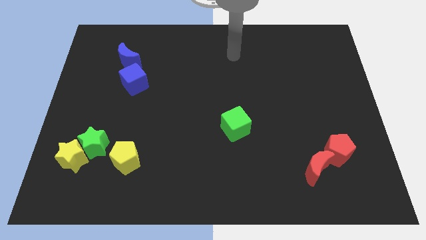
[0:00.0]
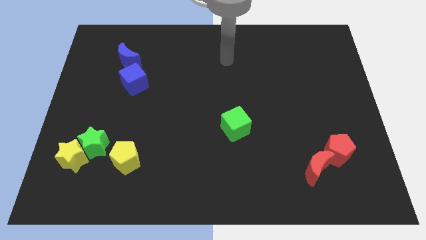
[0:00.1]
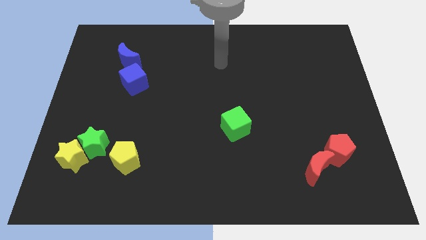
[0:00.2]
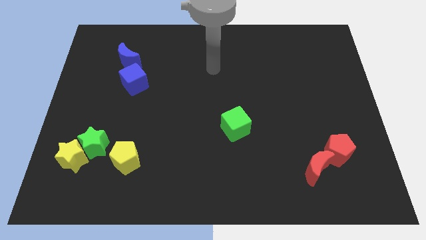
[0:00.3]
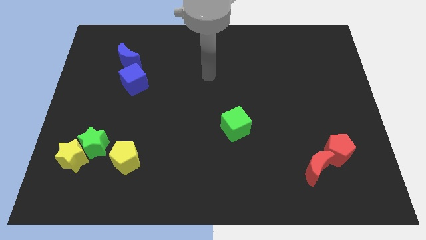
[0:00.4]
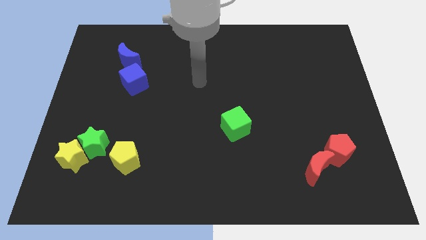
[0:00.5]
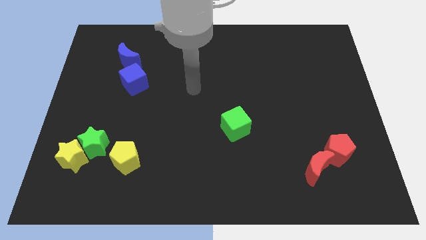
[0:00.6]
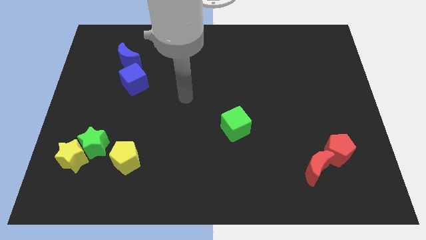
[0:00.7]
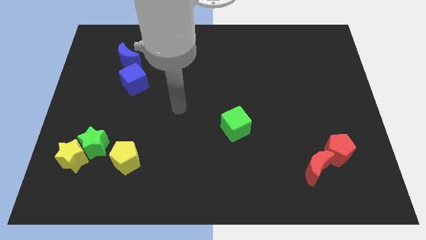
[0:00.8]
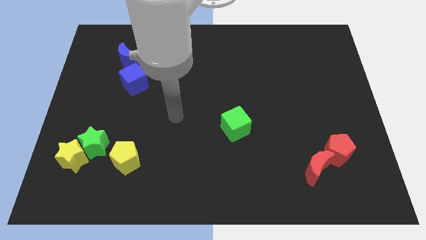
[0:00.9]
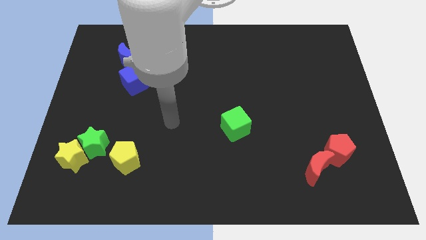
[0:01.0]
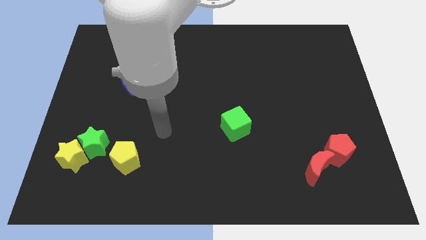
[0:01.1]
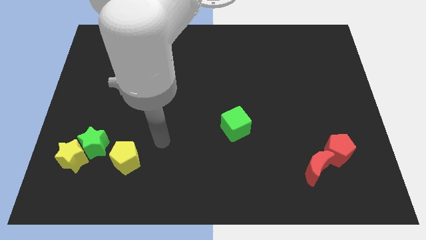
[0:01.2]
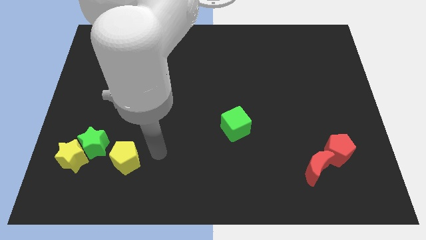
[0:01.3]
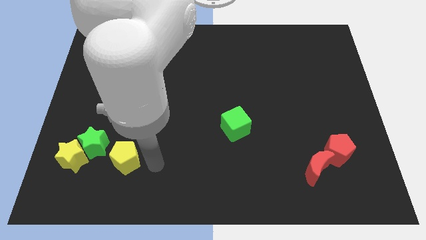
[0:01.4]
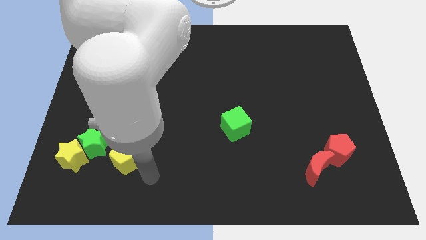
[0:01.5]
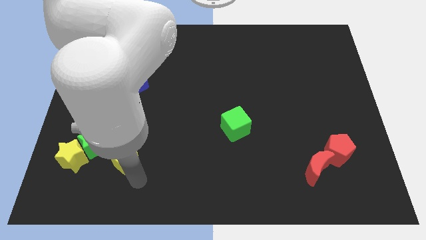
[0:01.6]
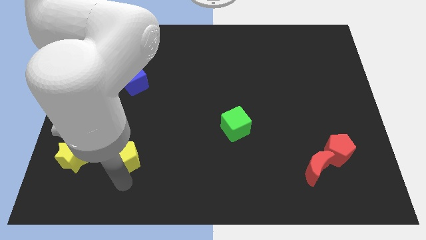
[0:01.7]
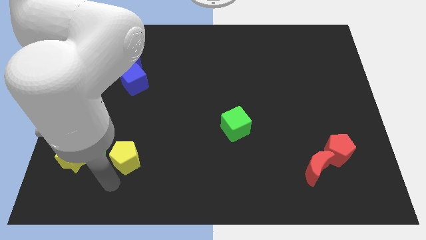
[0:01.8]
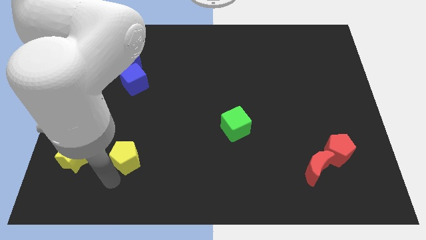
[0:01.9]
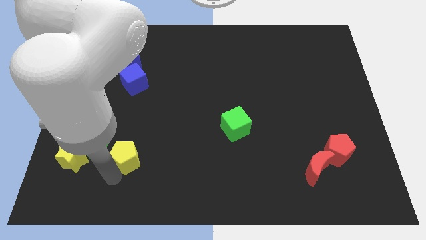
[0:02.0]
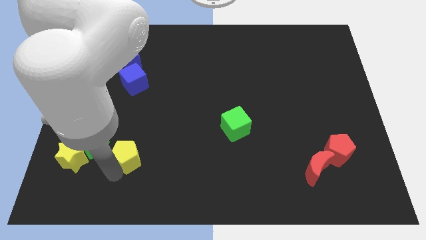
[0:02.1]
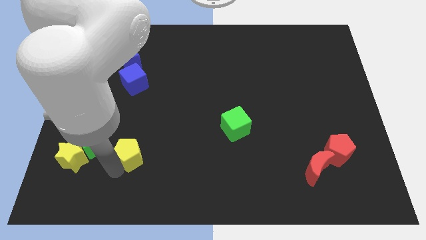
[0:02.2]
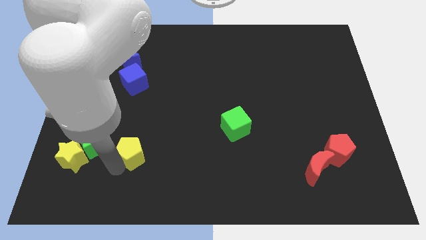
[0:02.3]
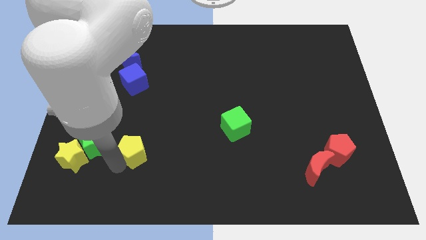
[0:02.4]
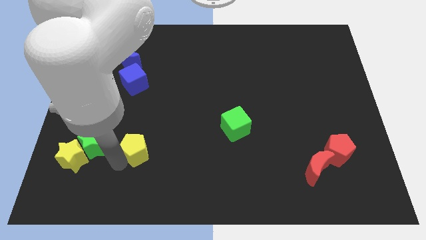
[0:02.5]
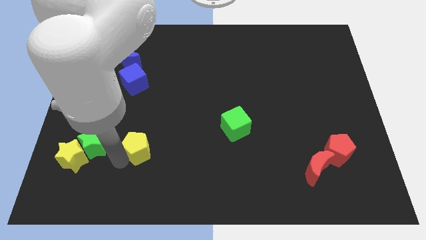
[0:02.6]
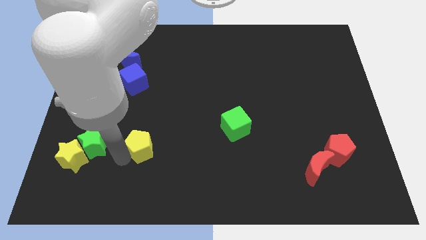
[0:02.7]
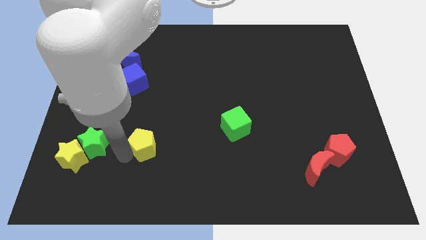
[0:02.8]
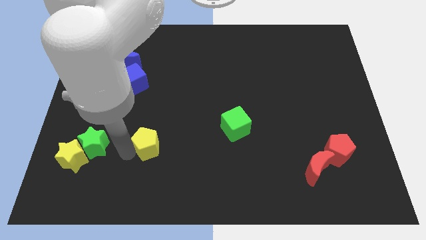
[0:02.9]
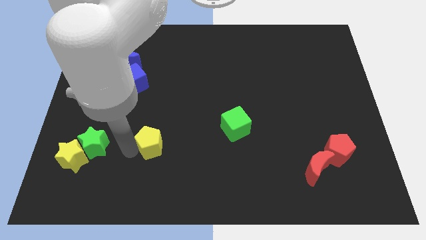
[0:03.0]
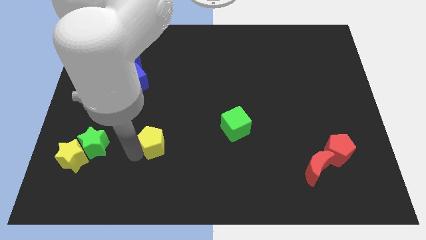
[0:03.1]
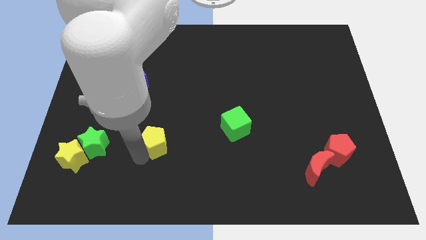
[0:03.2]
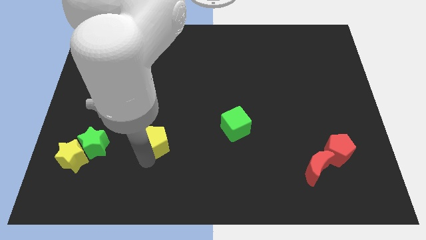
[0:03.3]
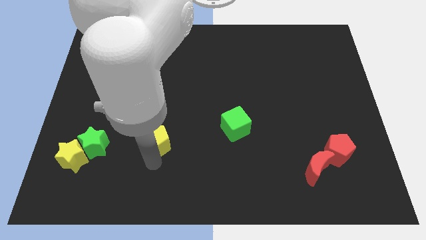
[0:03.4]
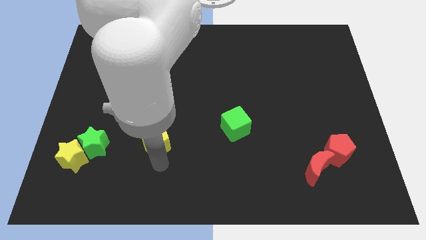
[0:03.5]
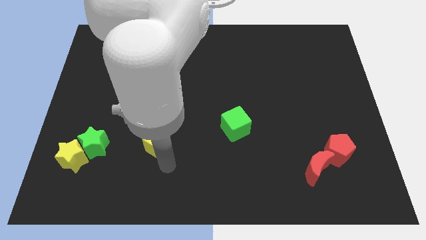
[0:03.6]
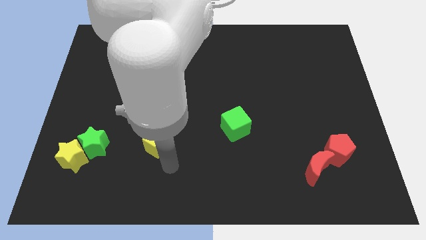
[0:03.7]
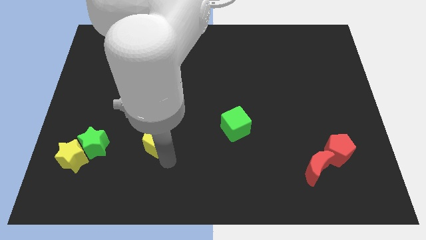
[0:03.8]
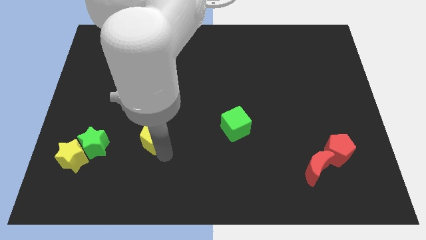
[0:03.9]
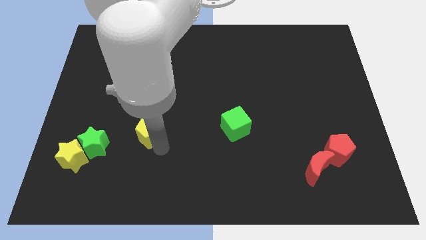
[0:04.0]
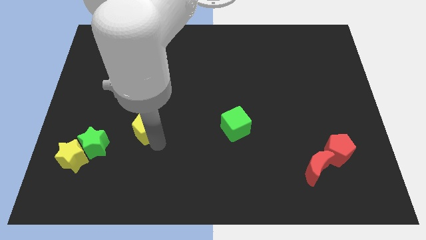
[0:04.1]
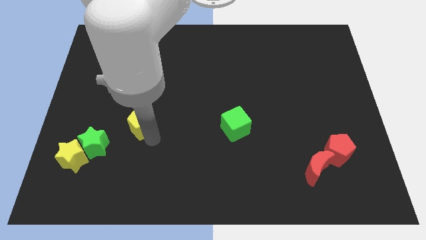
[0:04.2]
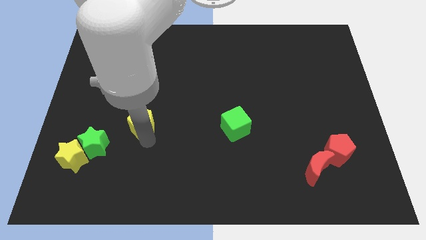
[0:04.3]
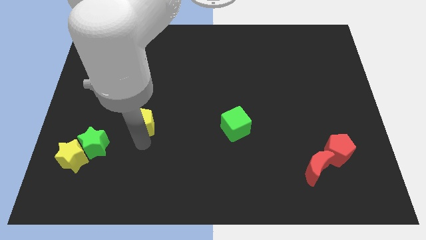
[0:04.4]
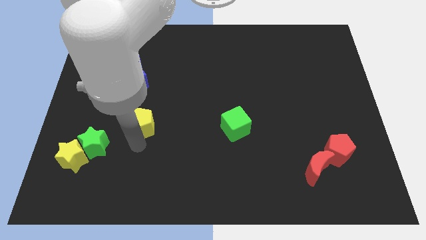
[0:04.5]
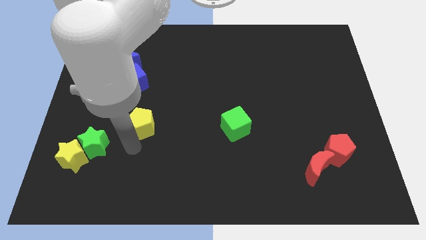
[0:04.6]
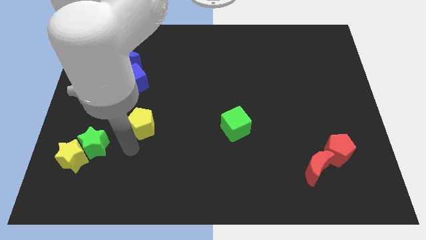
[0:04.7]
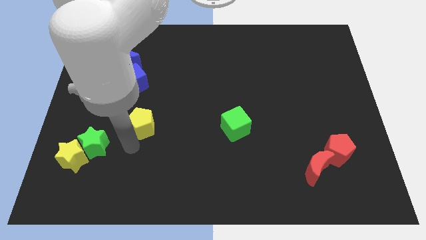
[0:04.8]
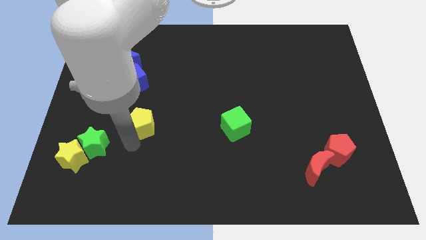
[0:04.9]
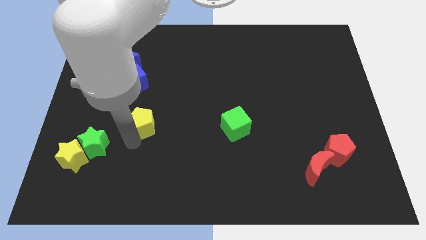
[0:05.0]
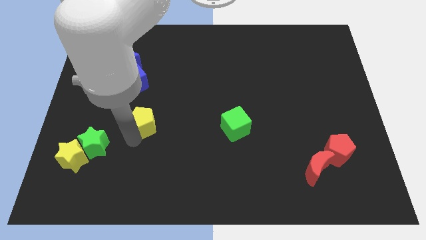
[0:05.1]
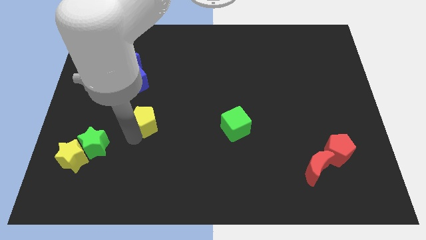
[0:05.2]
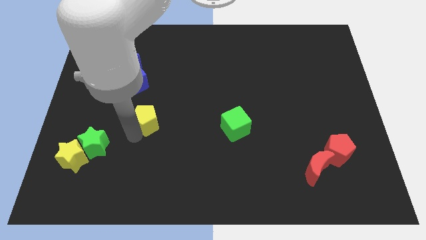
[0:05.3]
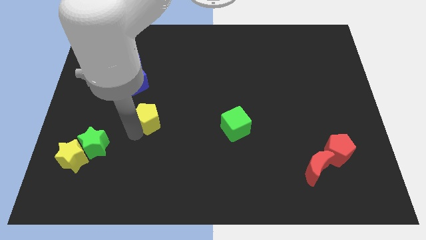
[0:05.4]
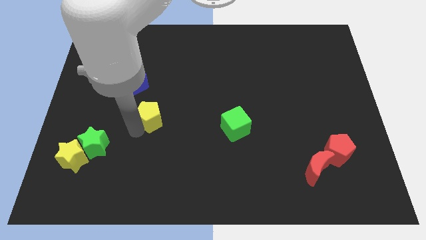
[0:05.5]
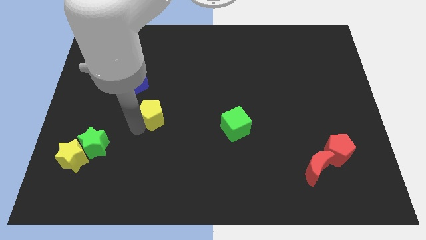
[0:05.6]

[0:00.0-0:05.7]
put the yellow pentagon to the bottom right side of the blue cube

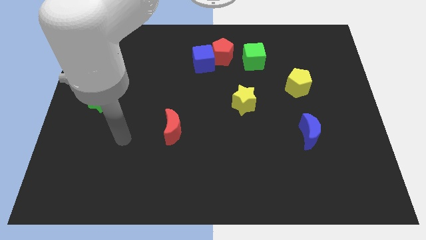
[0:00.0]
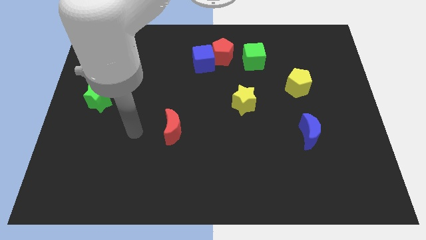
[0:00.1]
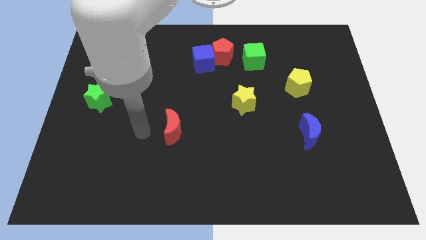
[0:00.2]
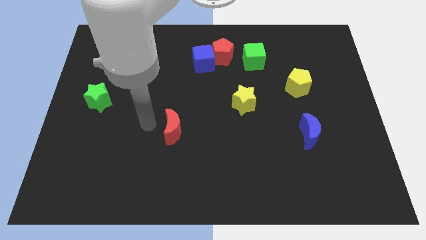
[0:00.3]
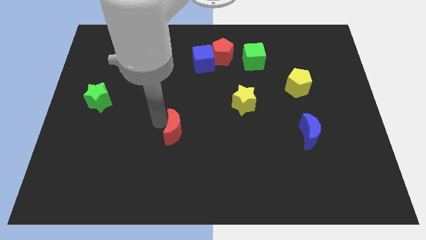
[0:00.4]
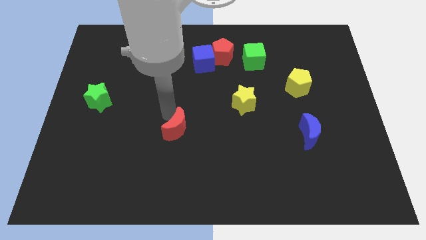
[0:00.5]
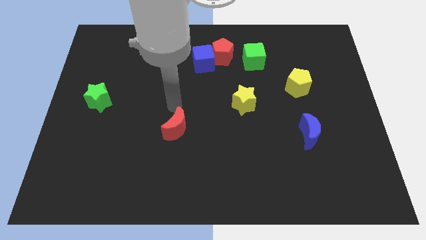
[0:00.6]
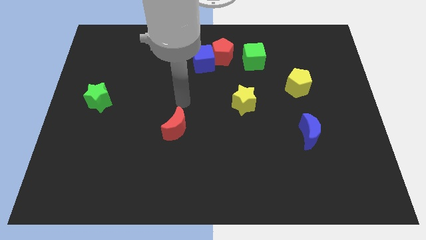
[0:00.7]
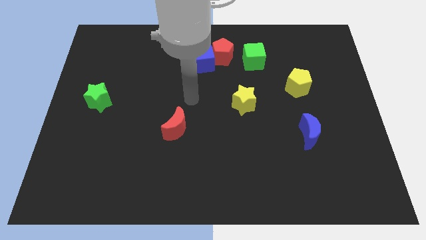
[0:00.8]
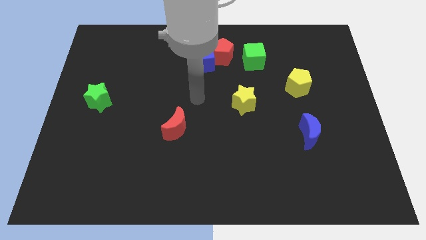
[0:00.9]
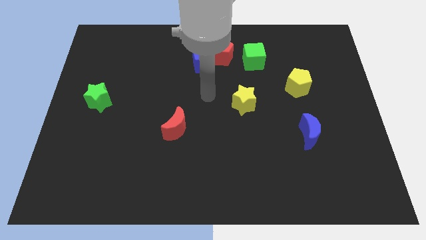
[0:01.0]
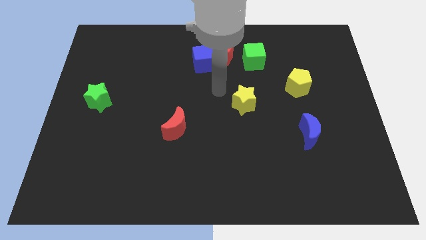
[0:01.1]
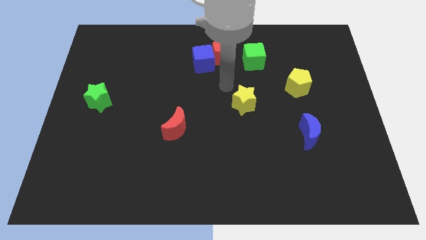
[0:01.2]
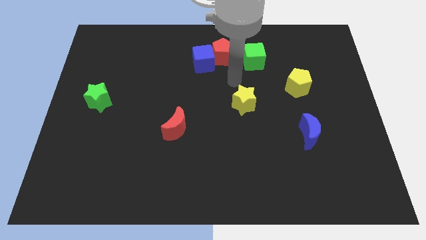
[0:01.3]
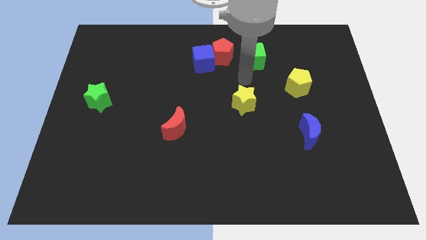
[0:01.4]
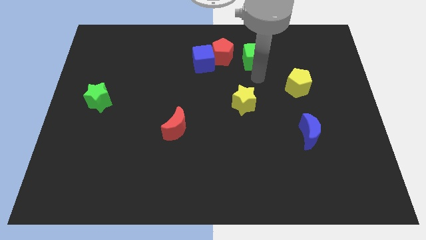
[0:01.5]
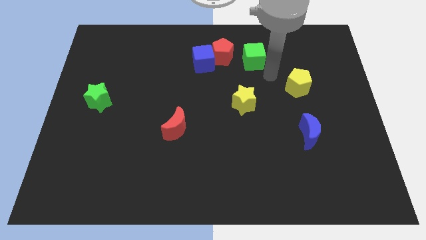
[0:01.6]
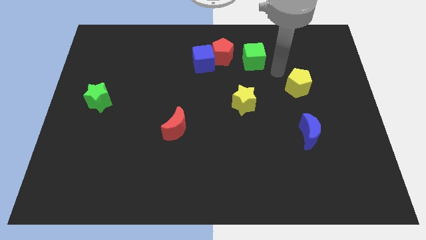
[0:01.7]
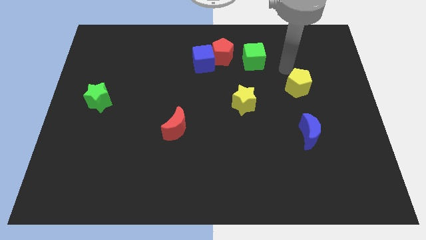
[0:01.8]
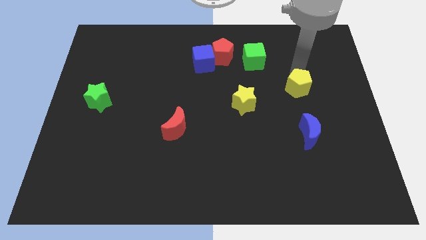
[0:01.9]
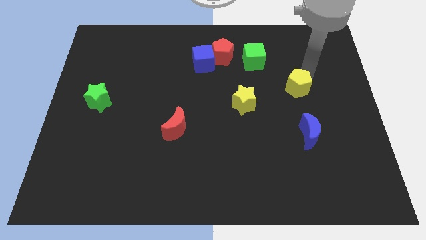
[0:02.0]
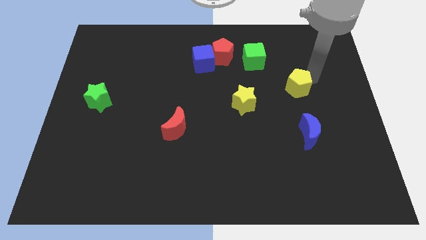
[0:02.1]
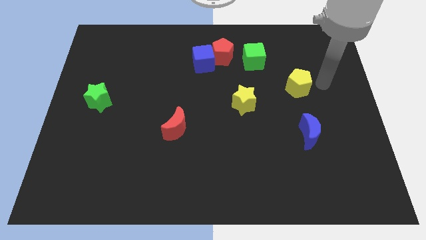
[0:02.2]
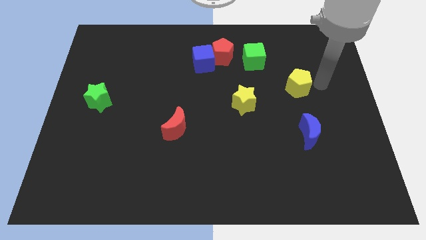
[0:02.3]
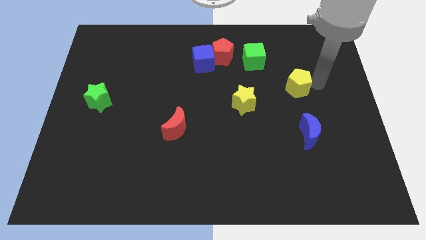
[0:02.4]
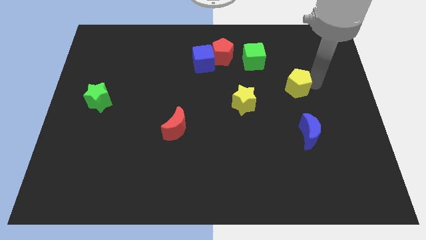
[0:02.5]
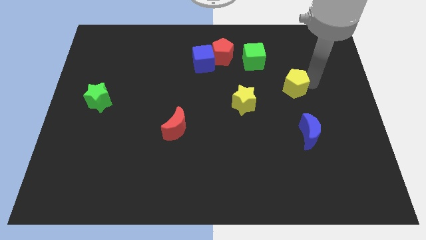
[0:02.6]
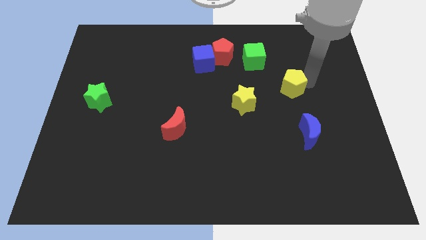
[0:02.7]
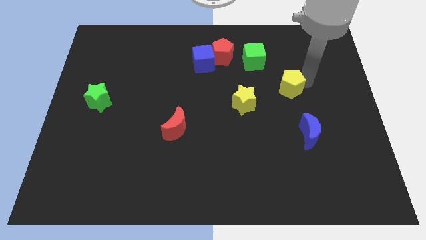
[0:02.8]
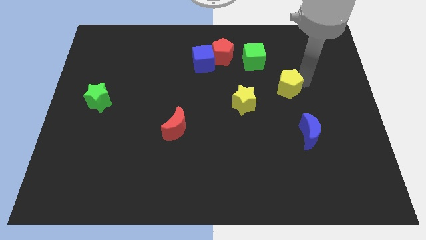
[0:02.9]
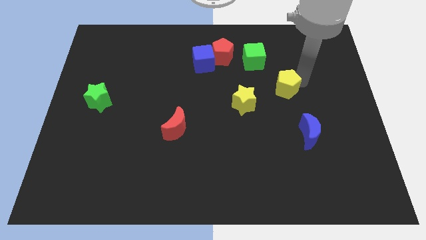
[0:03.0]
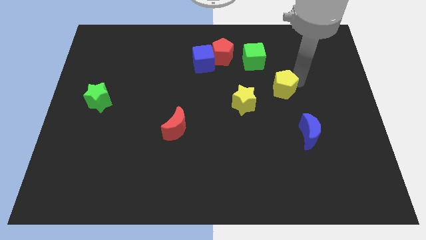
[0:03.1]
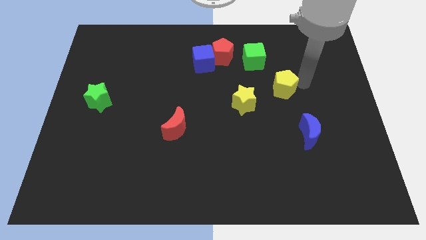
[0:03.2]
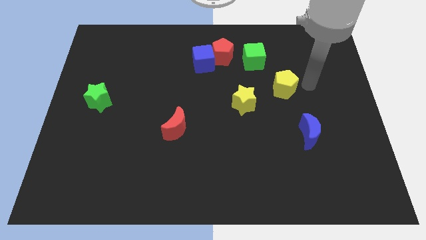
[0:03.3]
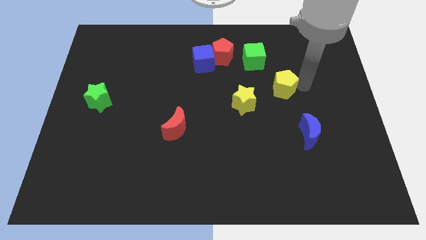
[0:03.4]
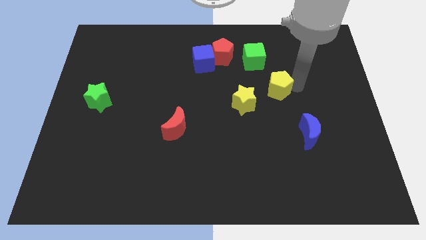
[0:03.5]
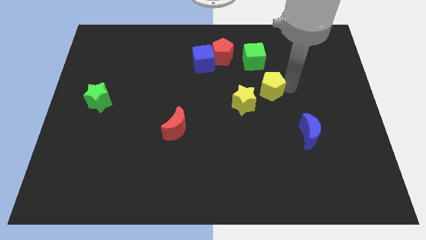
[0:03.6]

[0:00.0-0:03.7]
push the yellow pentagon to the bottom side of the green cube
